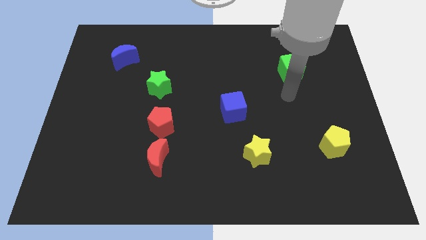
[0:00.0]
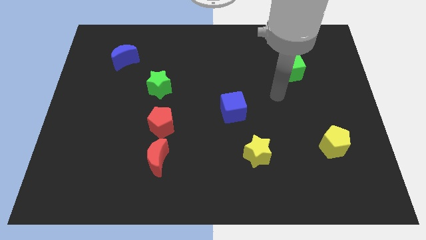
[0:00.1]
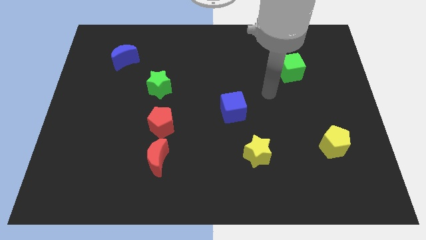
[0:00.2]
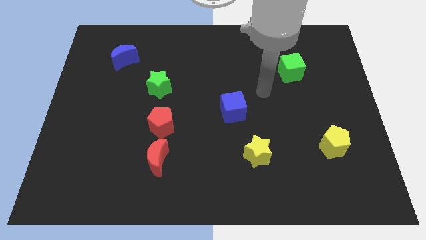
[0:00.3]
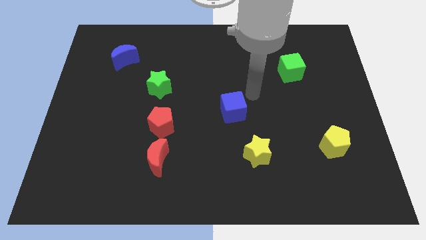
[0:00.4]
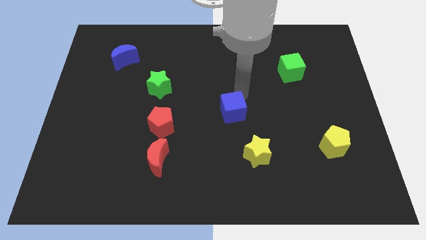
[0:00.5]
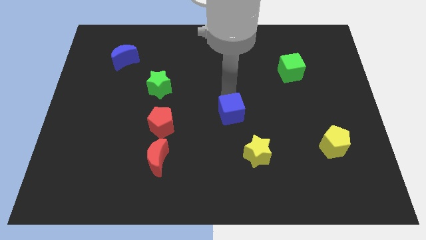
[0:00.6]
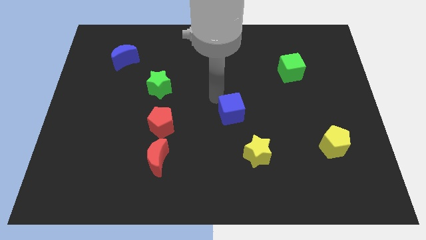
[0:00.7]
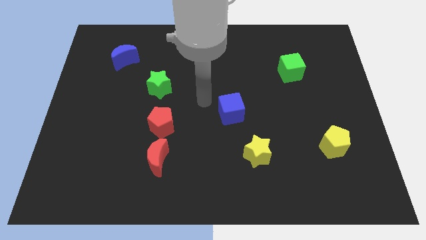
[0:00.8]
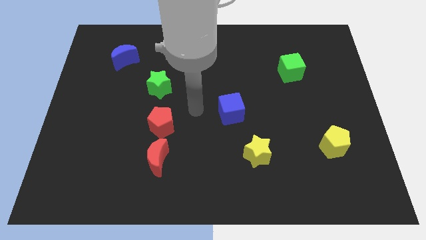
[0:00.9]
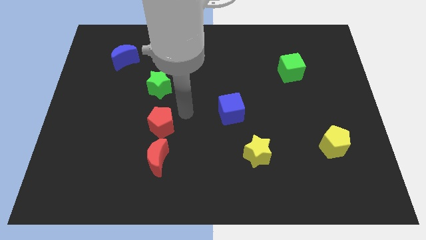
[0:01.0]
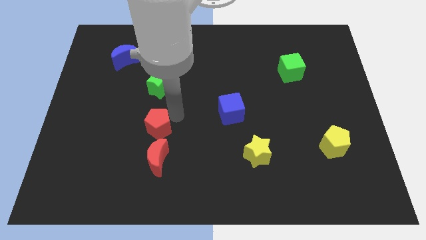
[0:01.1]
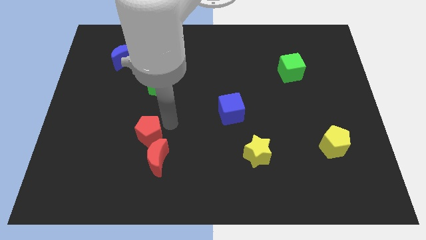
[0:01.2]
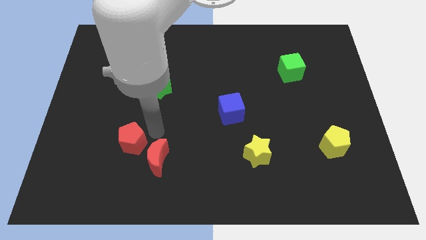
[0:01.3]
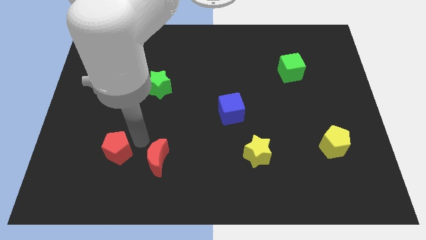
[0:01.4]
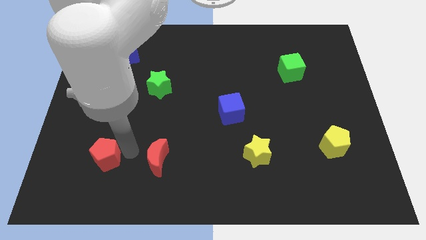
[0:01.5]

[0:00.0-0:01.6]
separate the red moon from the red pentagon

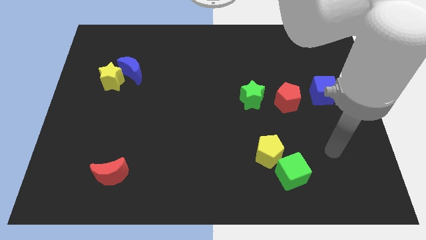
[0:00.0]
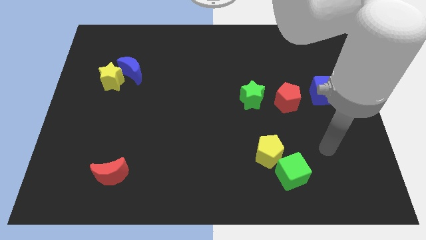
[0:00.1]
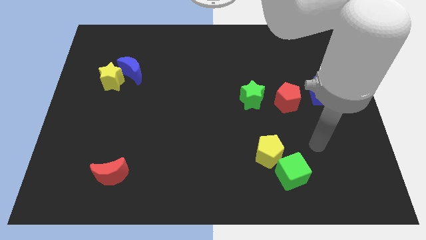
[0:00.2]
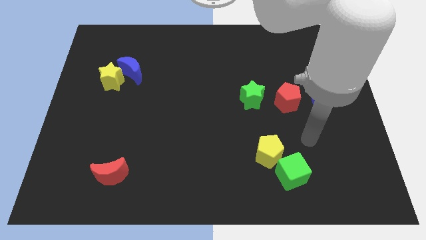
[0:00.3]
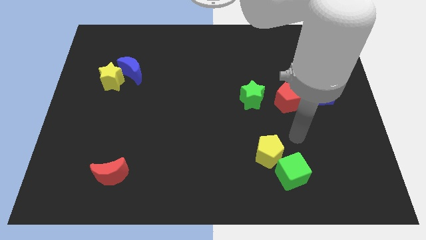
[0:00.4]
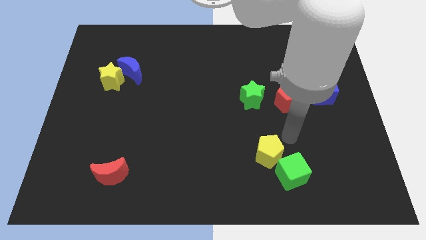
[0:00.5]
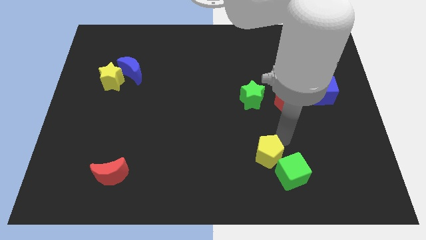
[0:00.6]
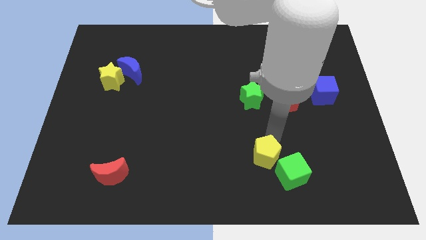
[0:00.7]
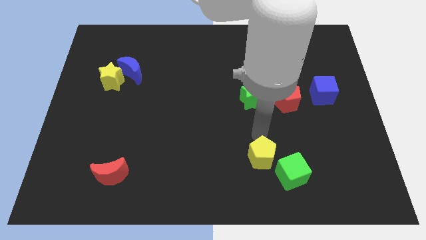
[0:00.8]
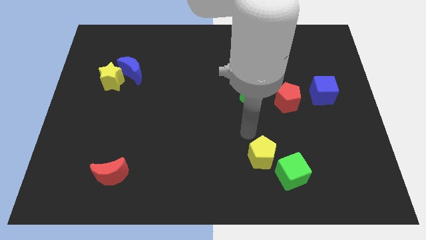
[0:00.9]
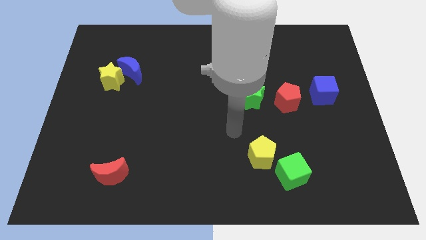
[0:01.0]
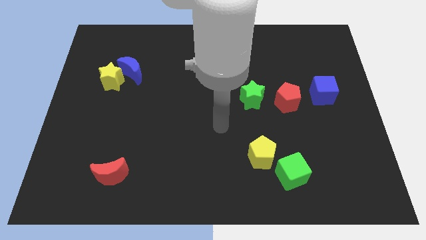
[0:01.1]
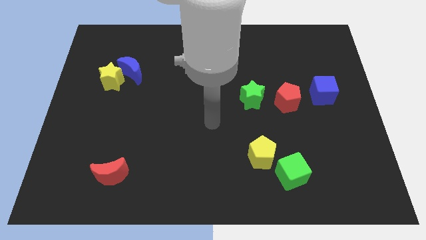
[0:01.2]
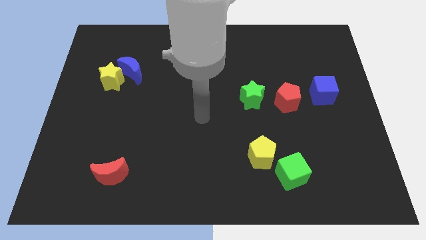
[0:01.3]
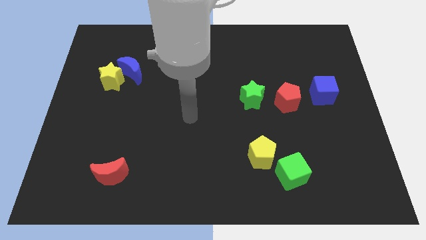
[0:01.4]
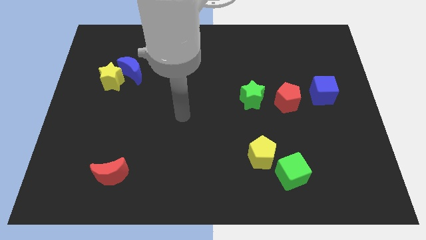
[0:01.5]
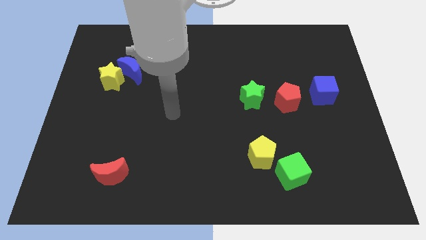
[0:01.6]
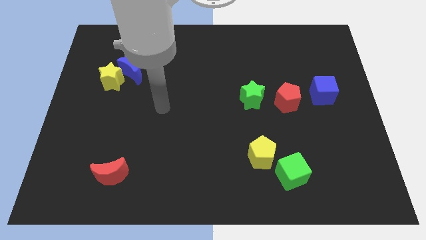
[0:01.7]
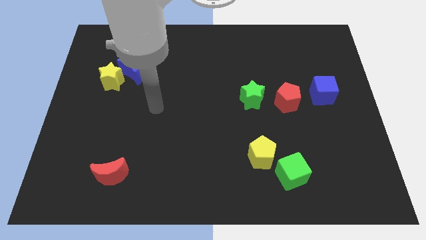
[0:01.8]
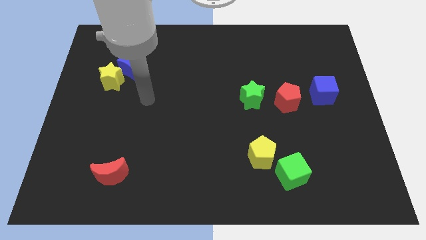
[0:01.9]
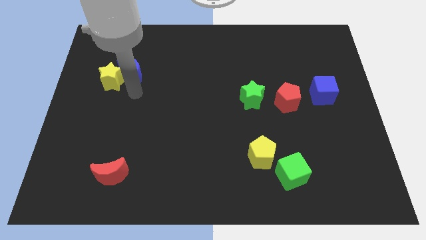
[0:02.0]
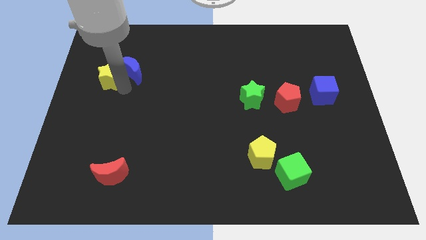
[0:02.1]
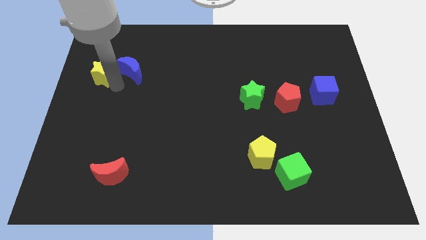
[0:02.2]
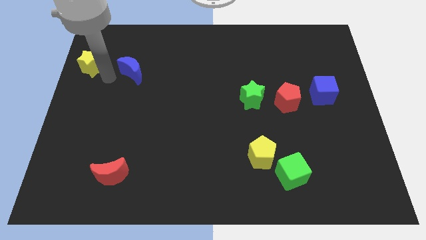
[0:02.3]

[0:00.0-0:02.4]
move the blue moon away from the yellow star

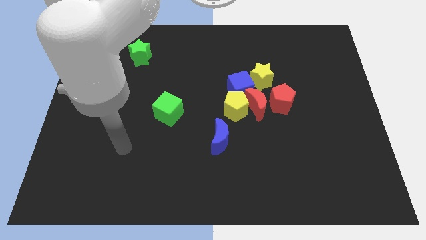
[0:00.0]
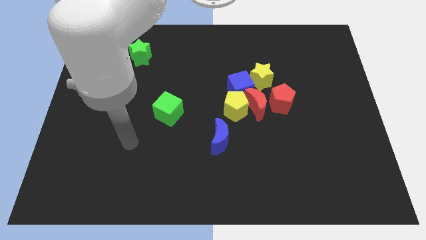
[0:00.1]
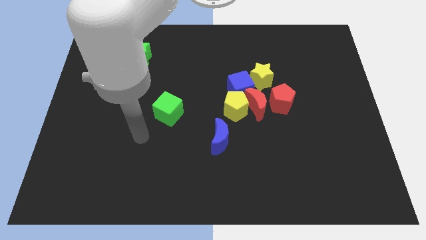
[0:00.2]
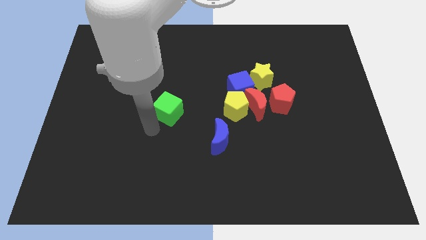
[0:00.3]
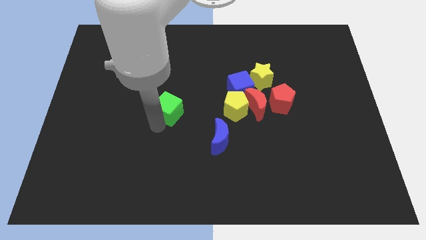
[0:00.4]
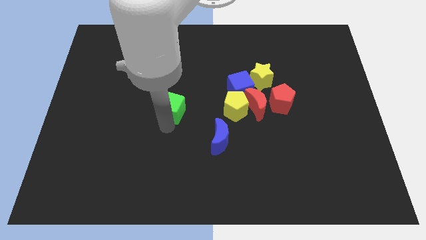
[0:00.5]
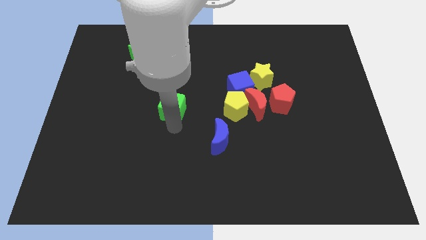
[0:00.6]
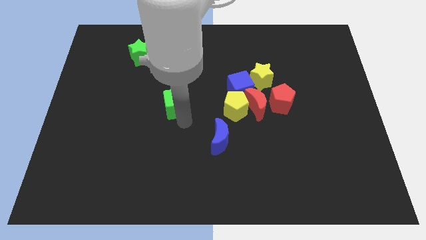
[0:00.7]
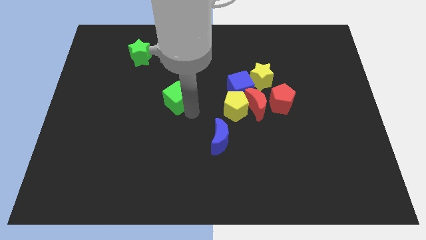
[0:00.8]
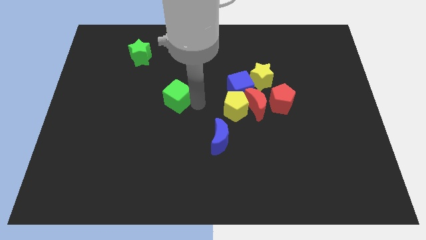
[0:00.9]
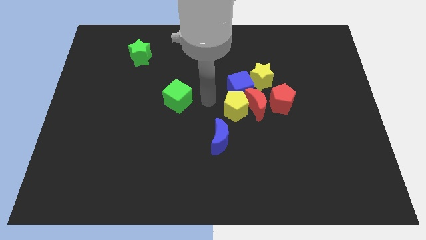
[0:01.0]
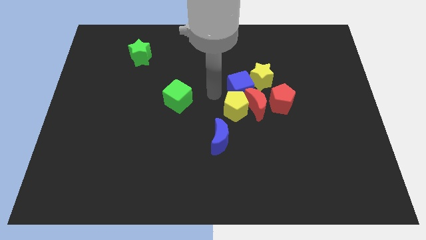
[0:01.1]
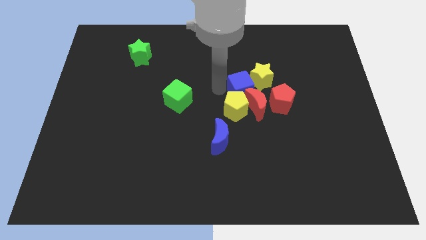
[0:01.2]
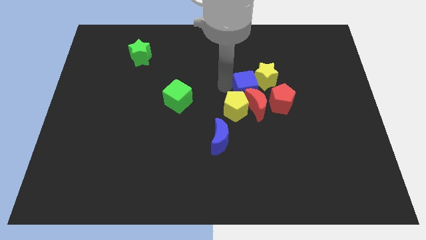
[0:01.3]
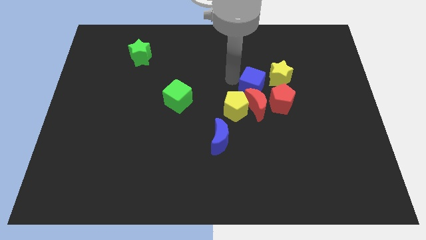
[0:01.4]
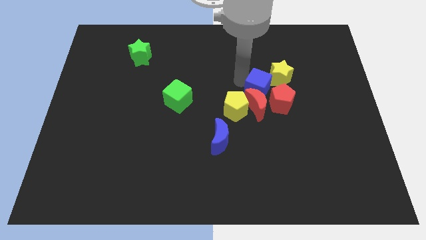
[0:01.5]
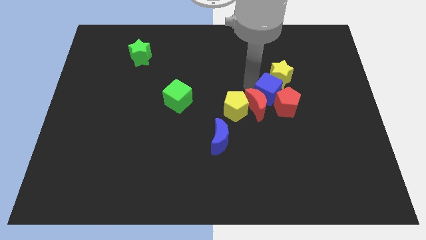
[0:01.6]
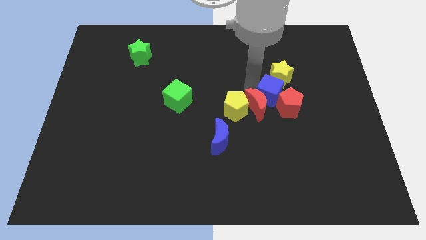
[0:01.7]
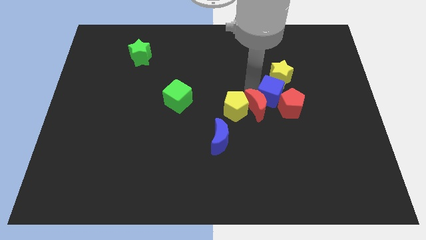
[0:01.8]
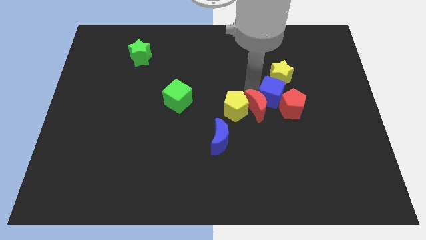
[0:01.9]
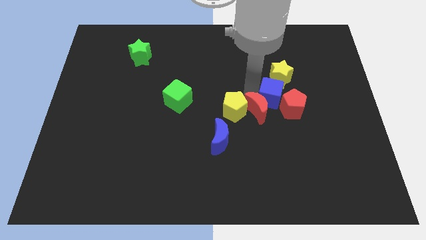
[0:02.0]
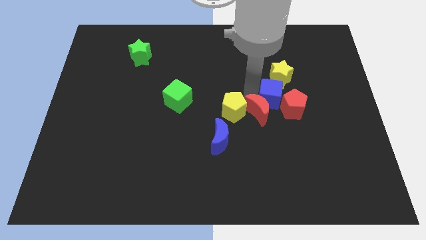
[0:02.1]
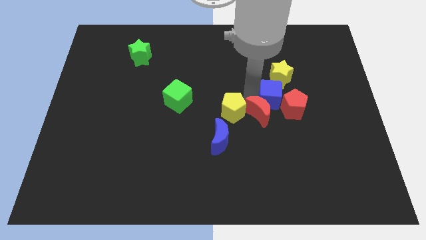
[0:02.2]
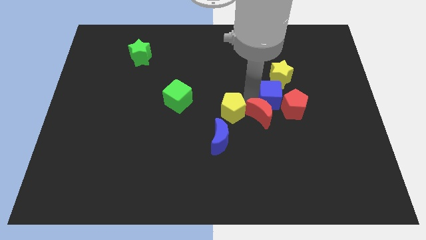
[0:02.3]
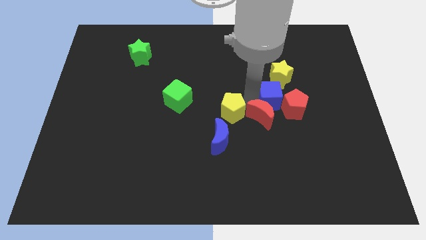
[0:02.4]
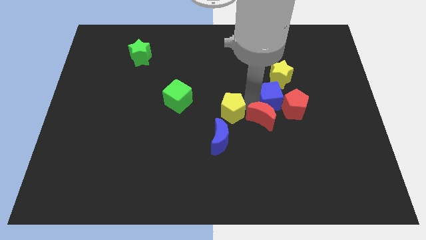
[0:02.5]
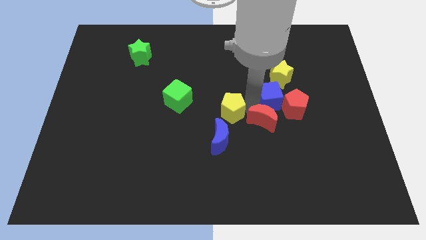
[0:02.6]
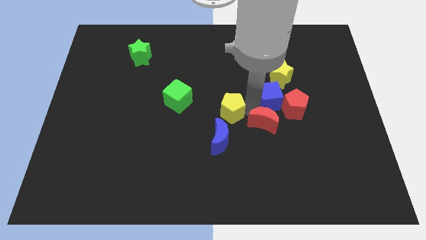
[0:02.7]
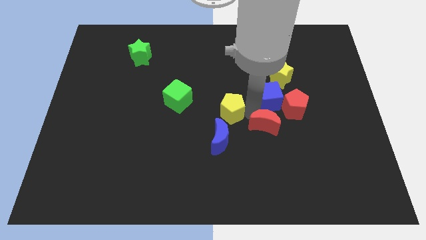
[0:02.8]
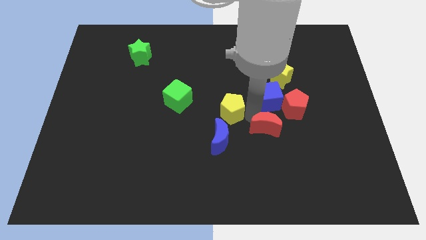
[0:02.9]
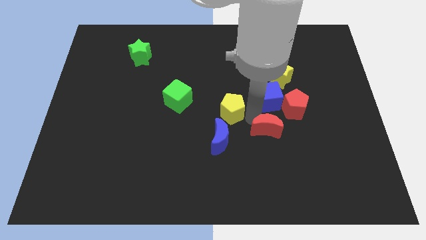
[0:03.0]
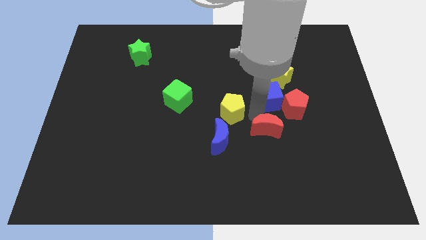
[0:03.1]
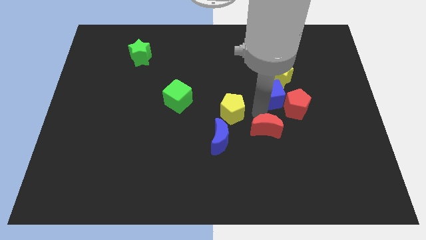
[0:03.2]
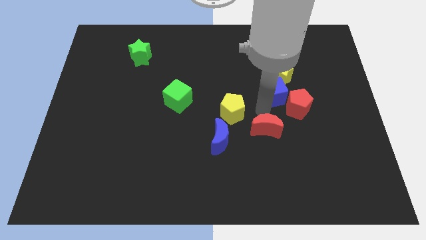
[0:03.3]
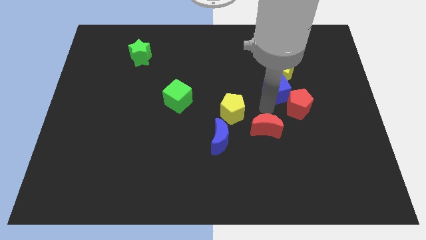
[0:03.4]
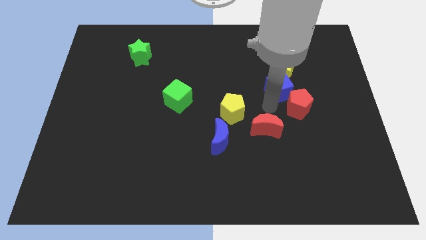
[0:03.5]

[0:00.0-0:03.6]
move the red moon away from the group of blocks

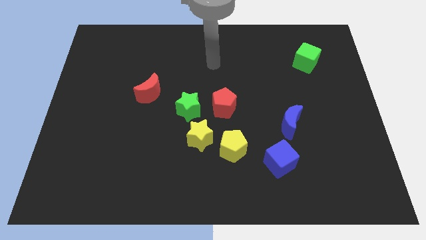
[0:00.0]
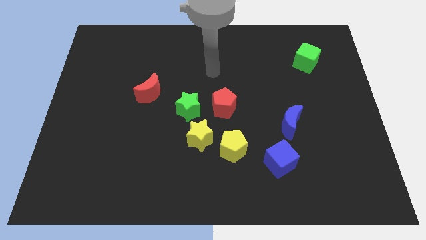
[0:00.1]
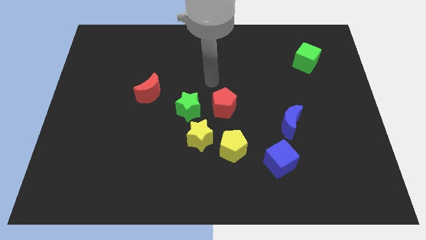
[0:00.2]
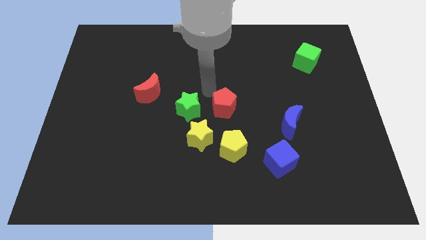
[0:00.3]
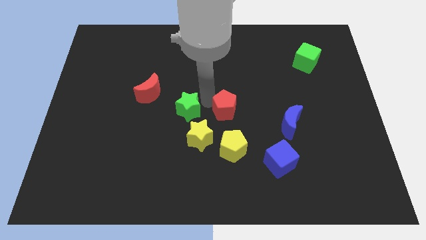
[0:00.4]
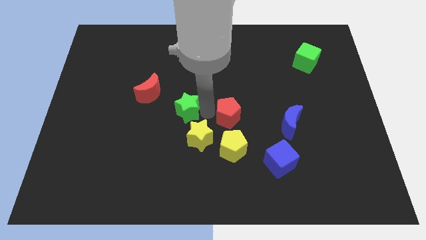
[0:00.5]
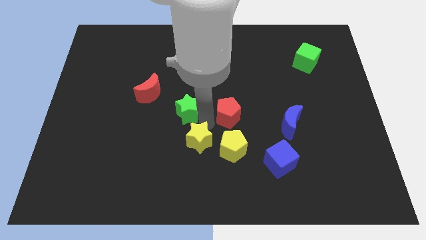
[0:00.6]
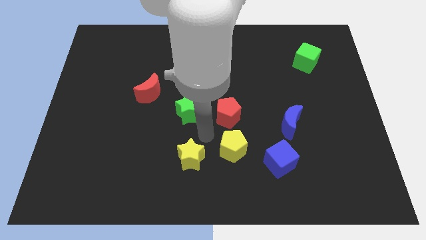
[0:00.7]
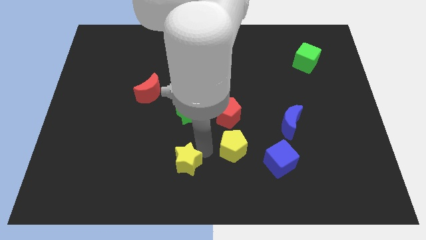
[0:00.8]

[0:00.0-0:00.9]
move the yellow pentagon away from the yellow star

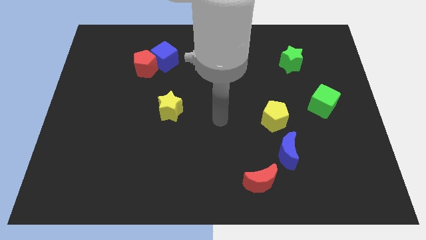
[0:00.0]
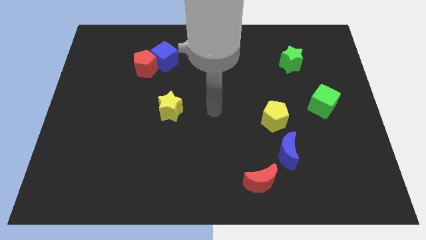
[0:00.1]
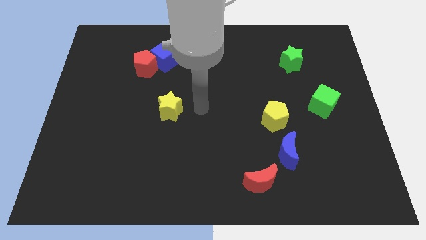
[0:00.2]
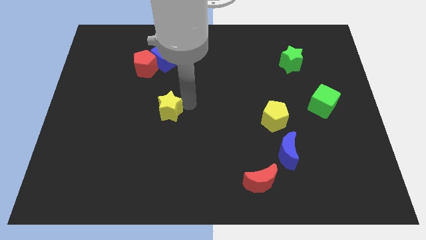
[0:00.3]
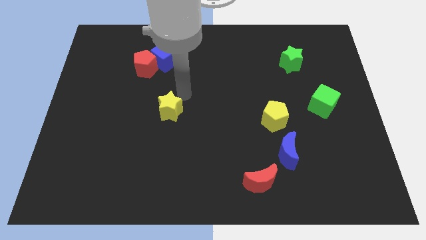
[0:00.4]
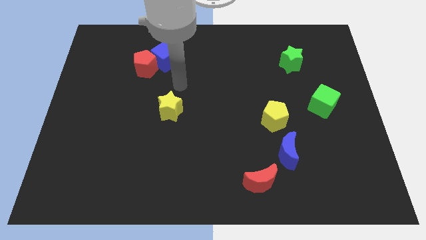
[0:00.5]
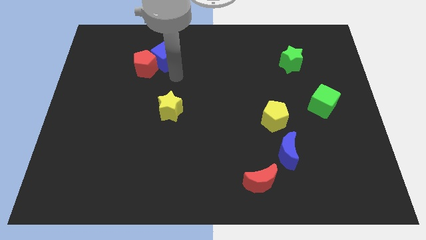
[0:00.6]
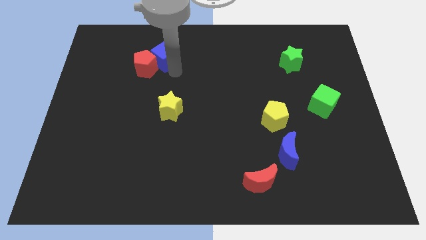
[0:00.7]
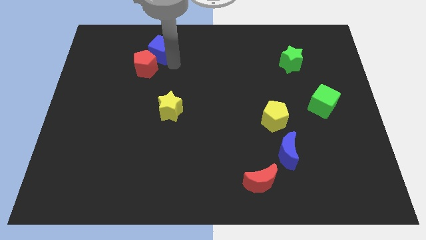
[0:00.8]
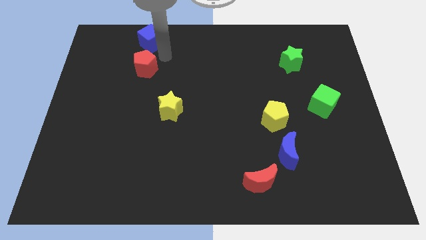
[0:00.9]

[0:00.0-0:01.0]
move the red pentagon away from the blue cube
